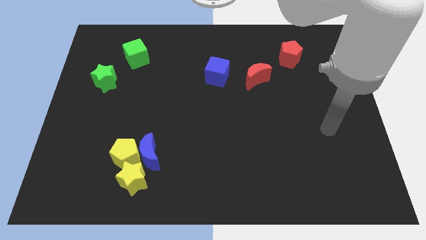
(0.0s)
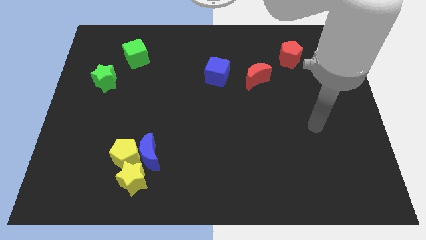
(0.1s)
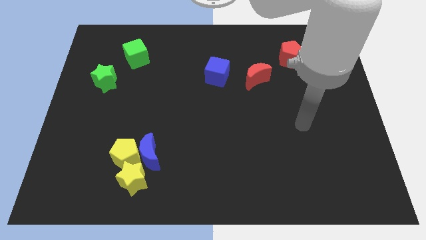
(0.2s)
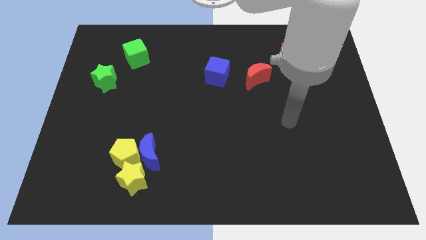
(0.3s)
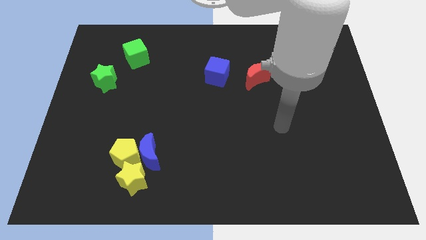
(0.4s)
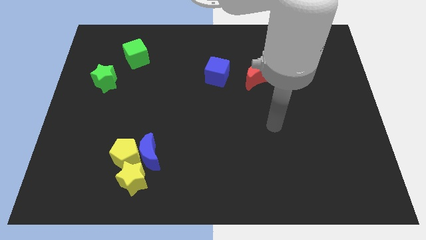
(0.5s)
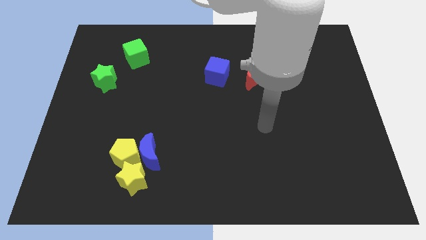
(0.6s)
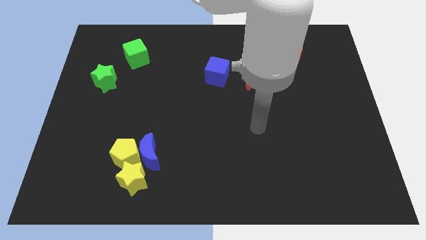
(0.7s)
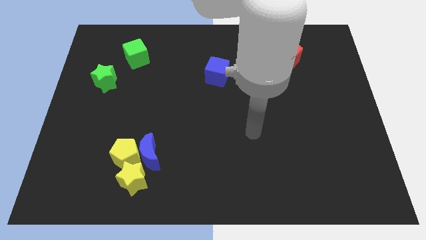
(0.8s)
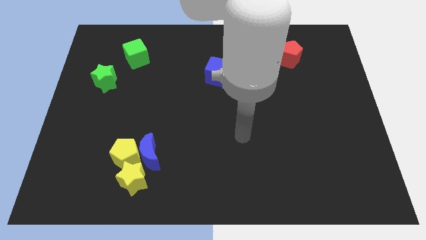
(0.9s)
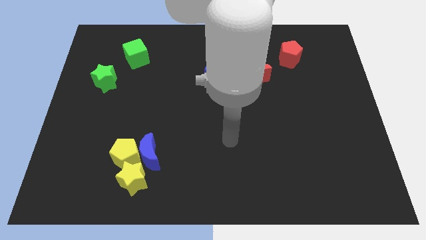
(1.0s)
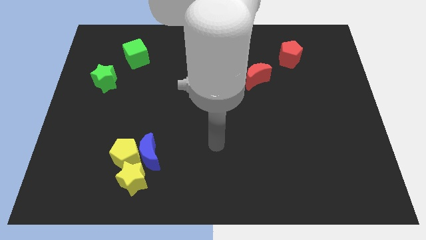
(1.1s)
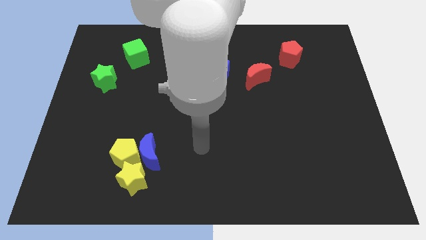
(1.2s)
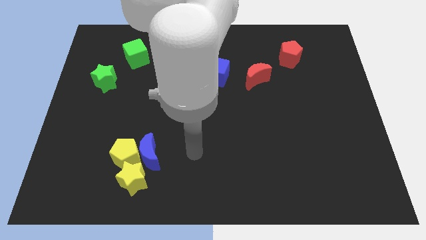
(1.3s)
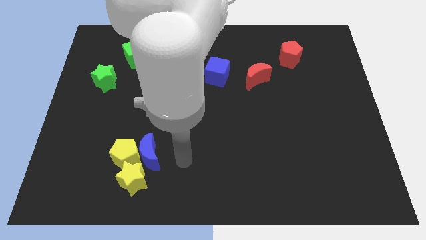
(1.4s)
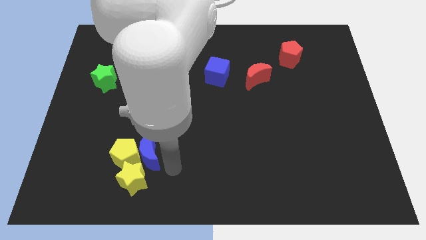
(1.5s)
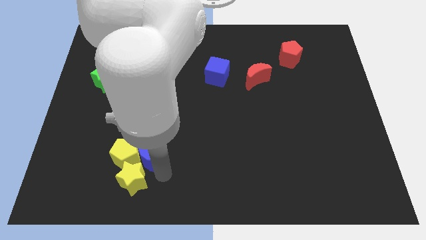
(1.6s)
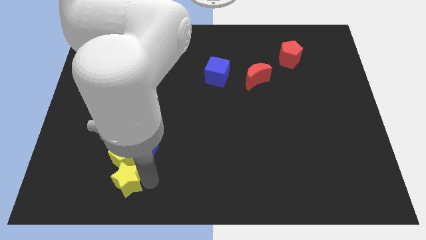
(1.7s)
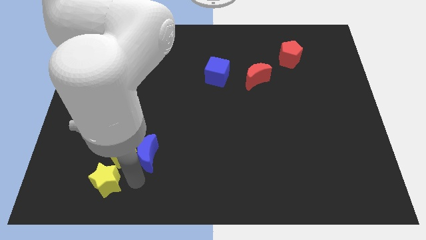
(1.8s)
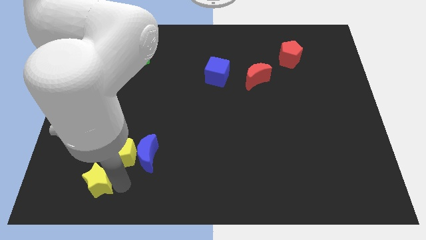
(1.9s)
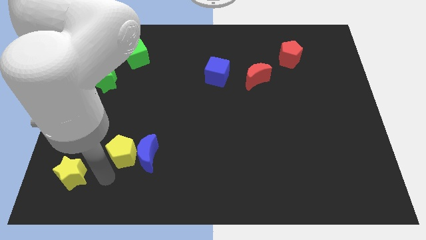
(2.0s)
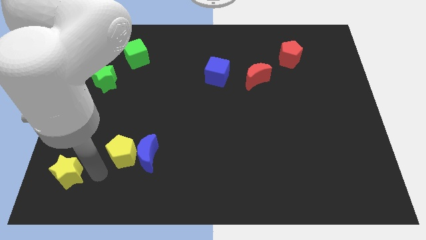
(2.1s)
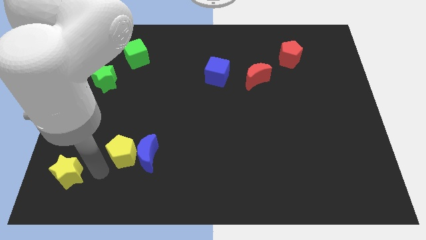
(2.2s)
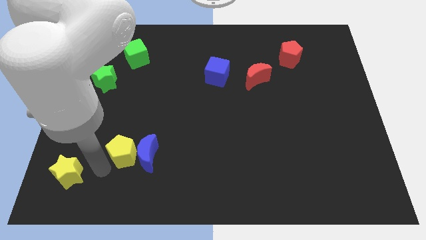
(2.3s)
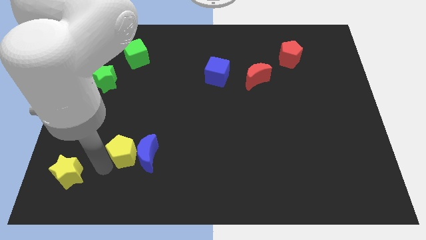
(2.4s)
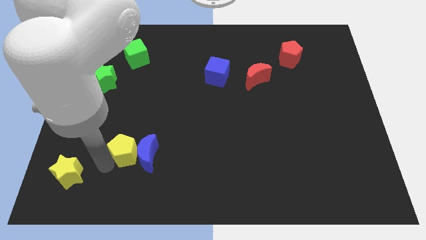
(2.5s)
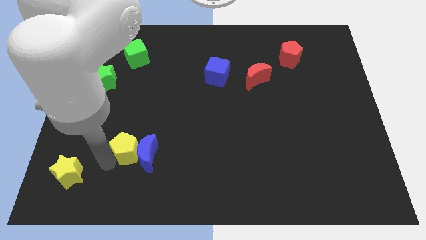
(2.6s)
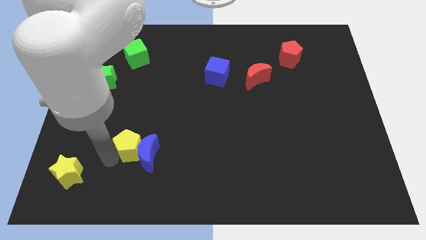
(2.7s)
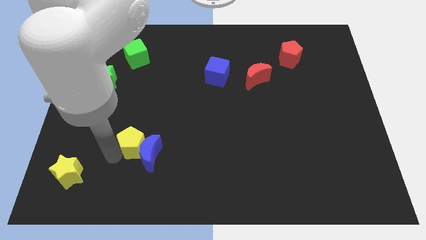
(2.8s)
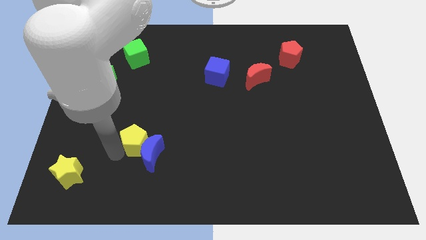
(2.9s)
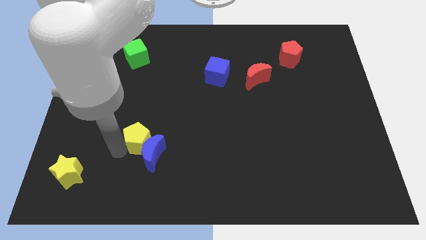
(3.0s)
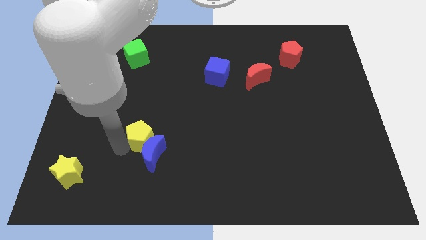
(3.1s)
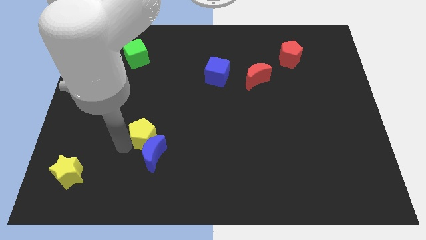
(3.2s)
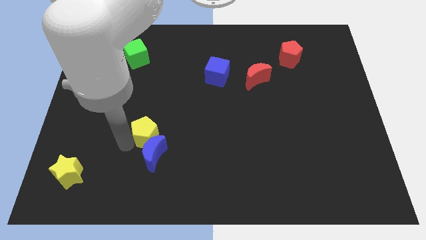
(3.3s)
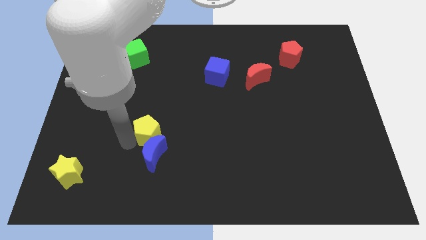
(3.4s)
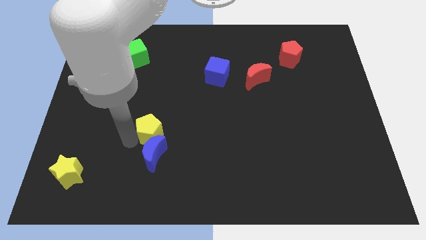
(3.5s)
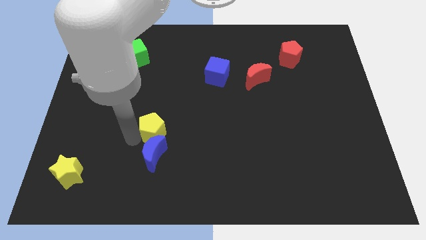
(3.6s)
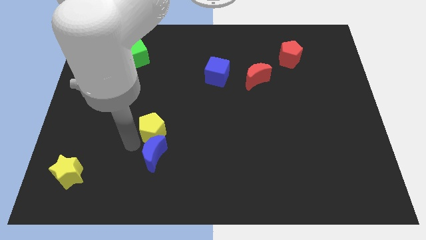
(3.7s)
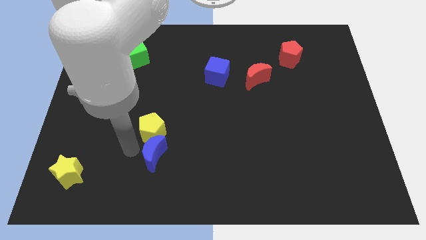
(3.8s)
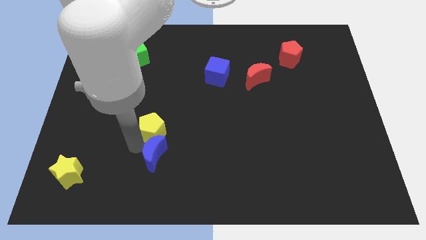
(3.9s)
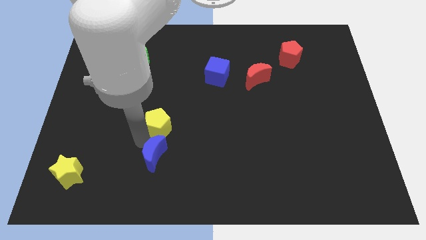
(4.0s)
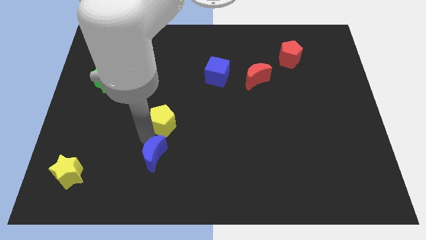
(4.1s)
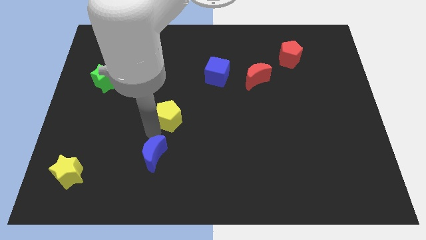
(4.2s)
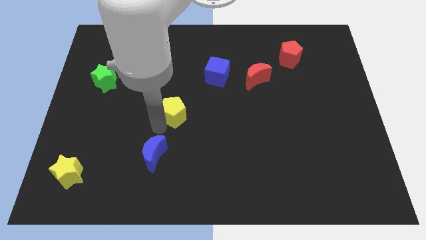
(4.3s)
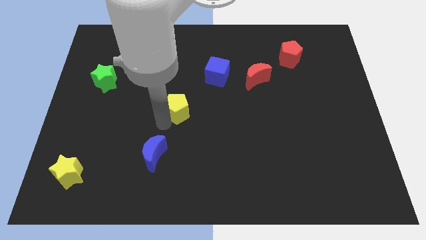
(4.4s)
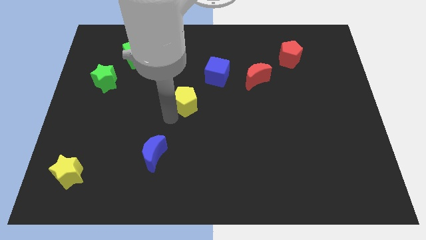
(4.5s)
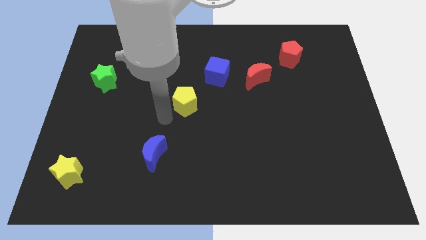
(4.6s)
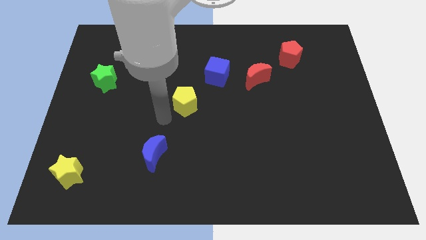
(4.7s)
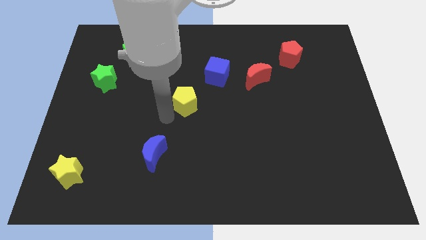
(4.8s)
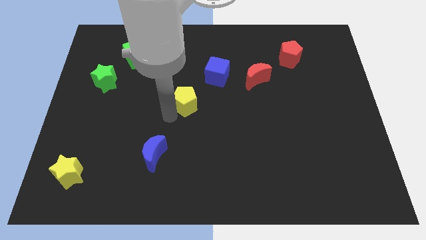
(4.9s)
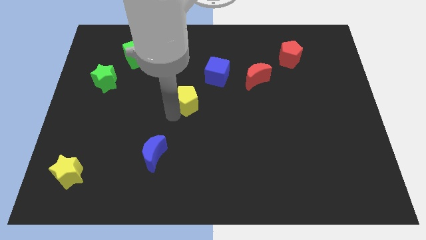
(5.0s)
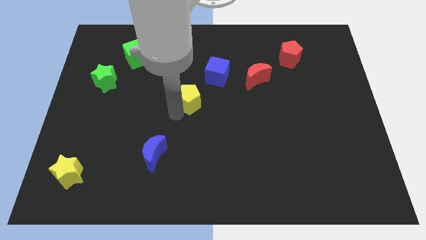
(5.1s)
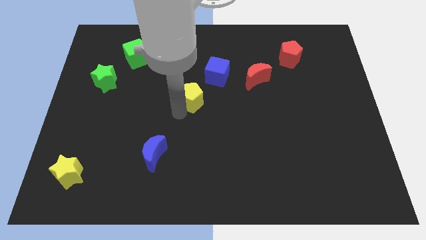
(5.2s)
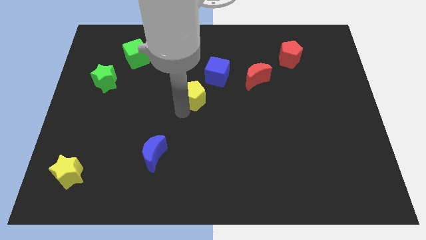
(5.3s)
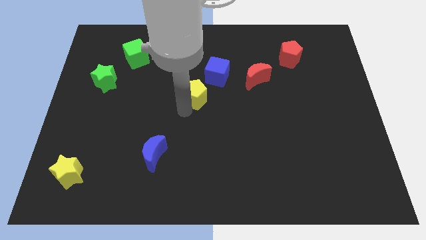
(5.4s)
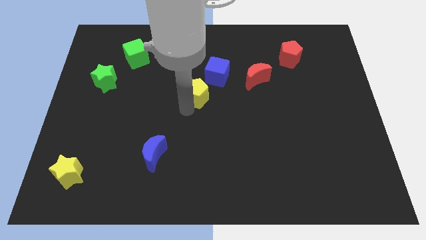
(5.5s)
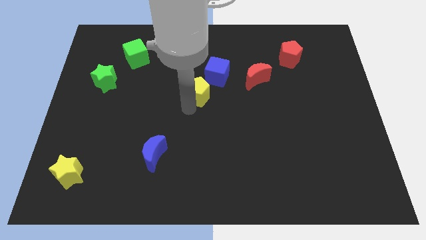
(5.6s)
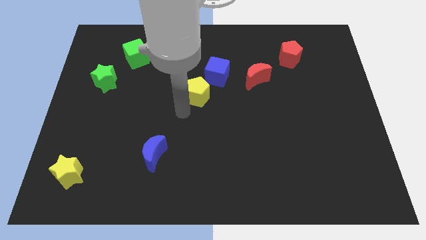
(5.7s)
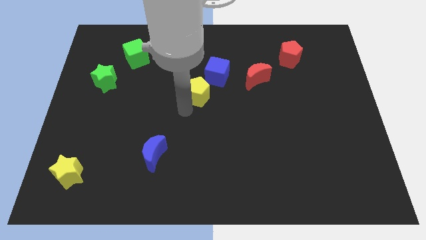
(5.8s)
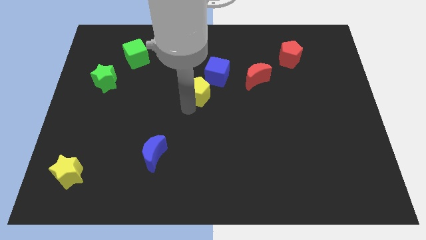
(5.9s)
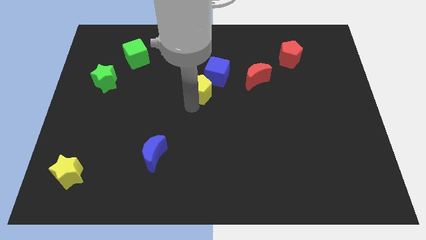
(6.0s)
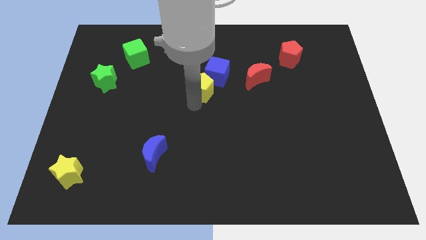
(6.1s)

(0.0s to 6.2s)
push the yellow pentagon next to the blue cube

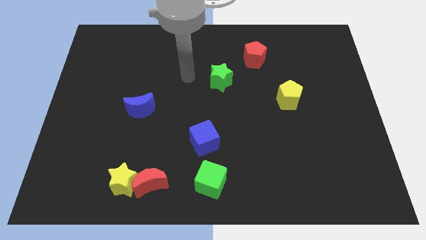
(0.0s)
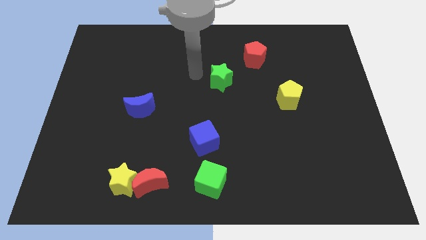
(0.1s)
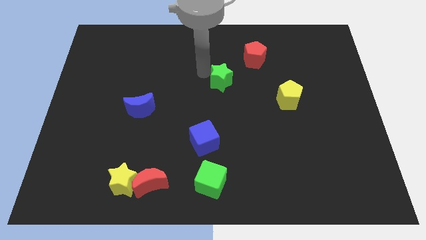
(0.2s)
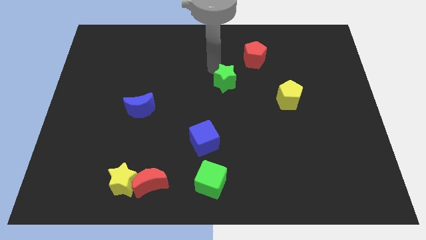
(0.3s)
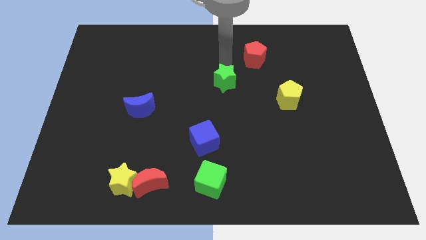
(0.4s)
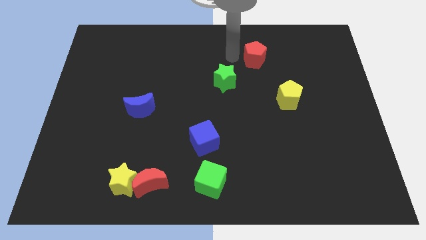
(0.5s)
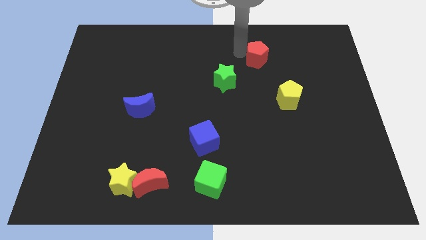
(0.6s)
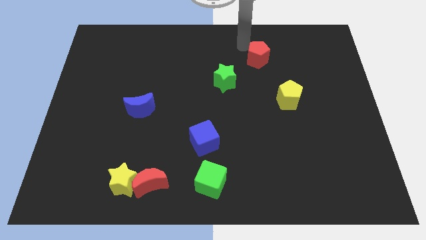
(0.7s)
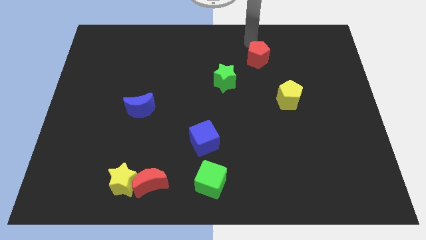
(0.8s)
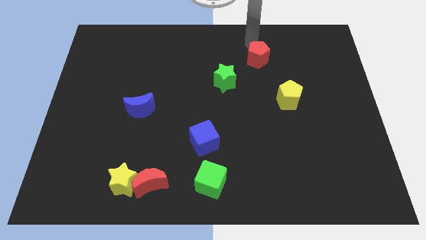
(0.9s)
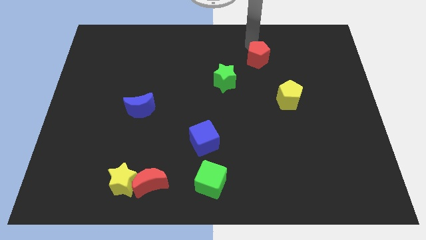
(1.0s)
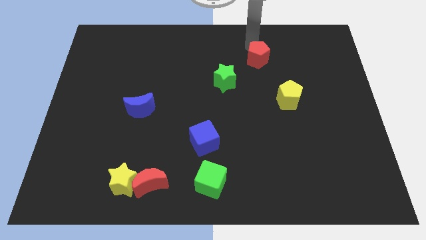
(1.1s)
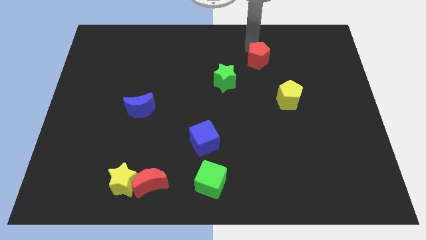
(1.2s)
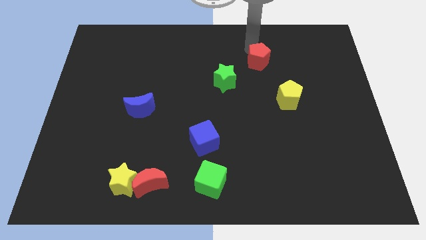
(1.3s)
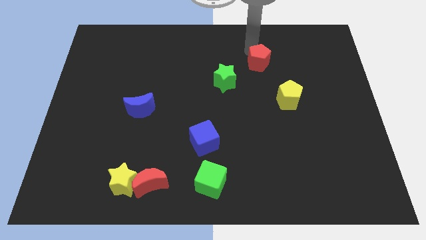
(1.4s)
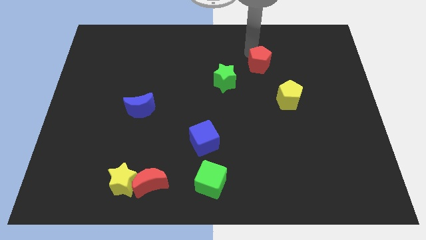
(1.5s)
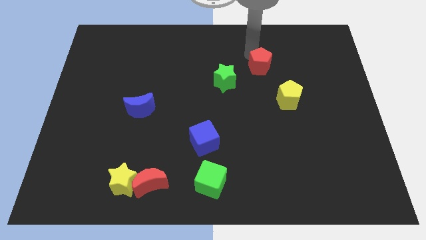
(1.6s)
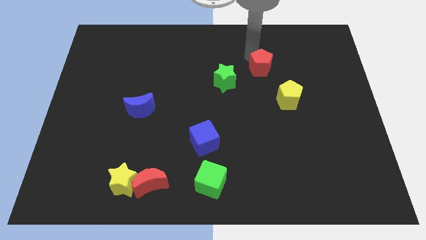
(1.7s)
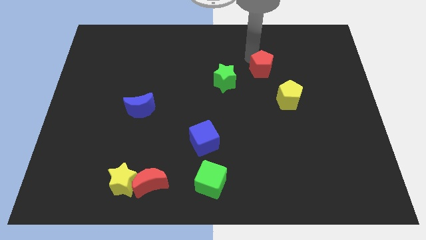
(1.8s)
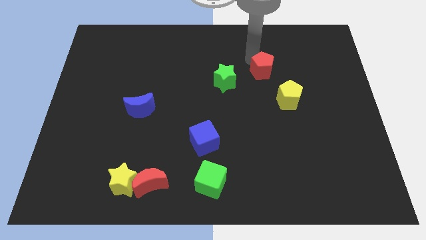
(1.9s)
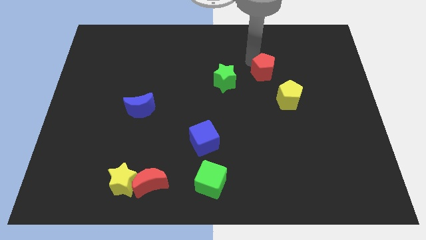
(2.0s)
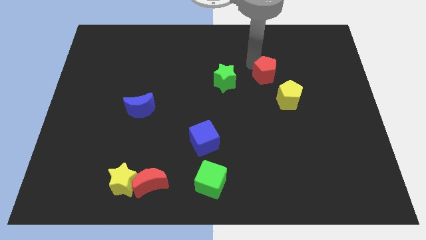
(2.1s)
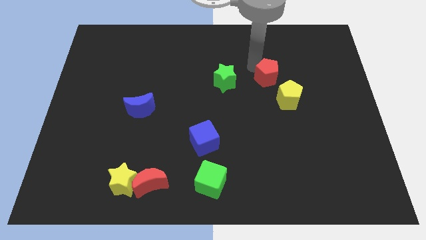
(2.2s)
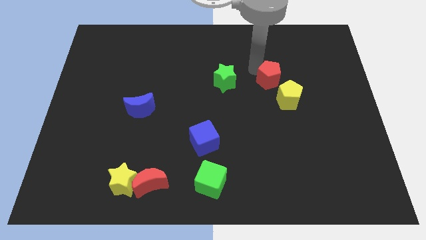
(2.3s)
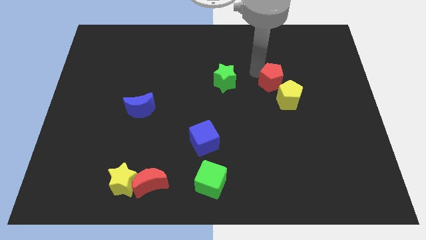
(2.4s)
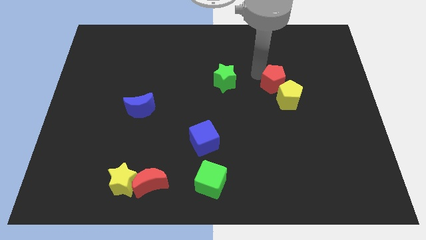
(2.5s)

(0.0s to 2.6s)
slide the red pentagon close to the yellow pentagon
